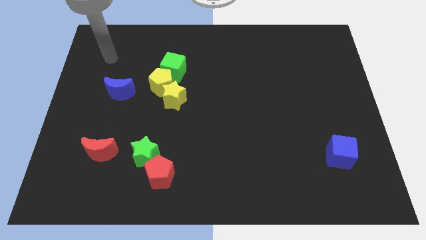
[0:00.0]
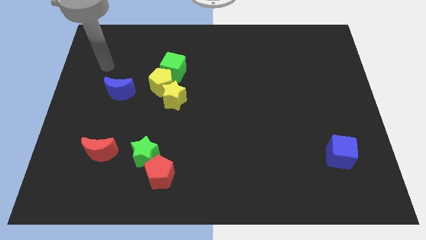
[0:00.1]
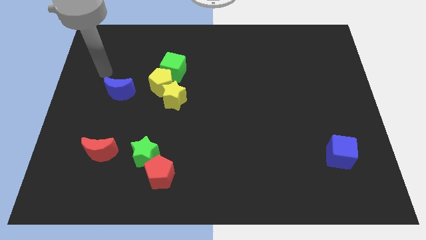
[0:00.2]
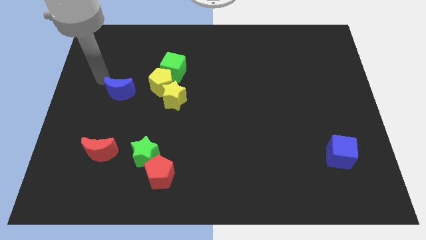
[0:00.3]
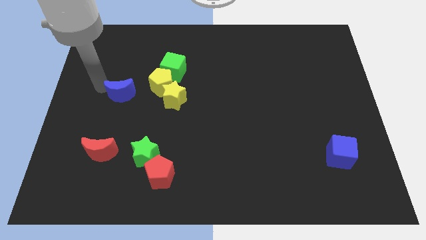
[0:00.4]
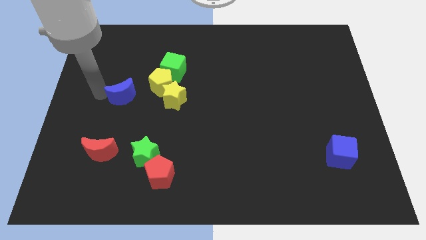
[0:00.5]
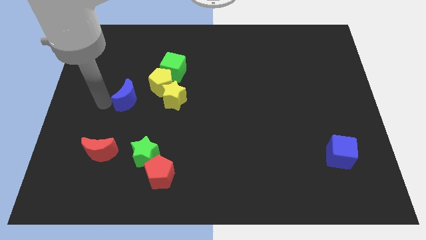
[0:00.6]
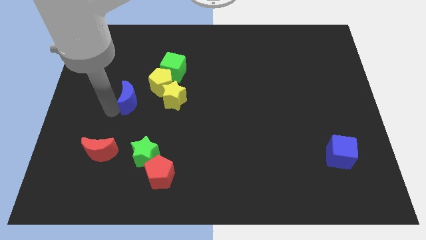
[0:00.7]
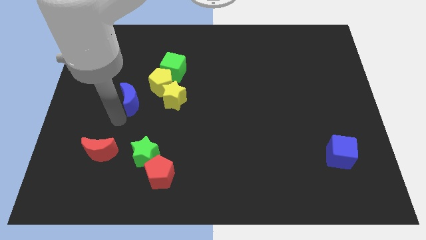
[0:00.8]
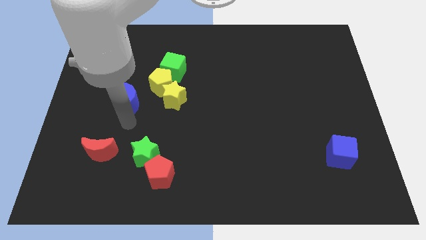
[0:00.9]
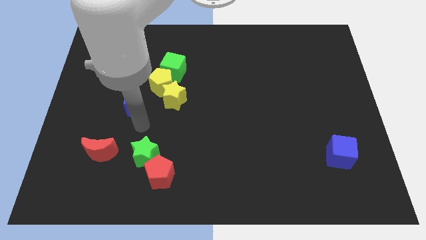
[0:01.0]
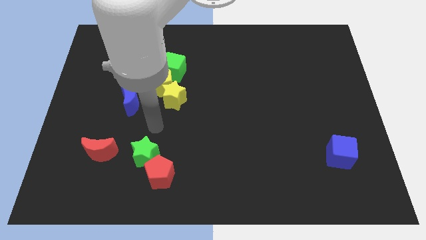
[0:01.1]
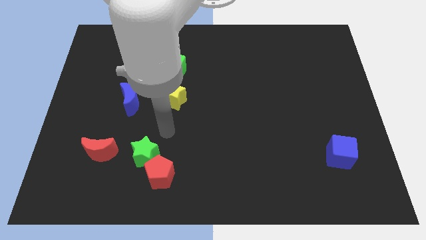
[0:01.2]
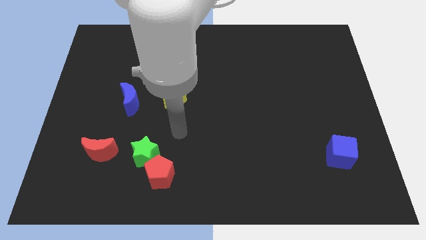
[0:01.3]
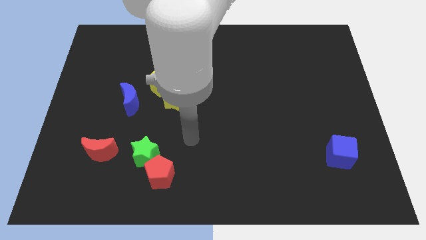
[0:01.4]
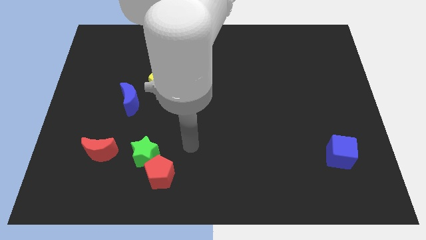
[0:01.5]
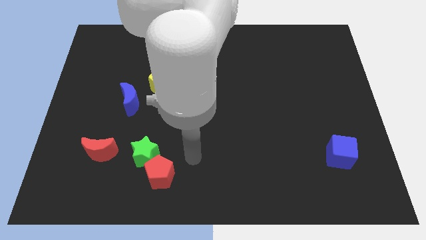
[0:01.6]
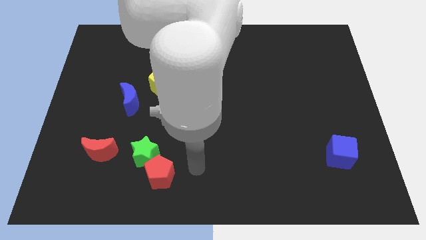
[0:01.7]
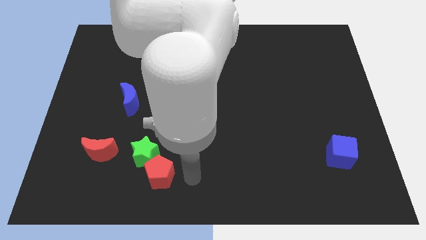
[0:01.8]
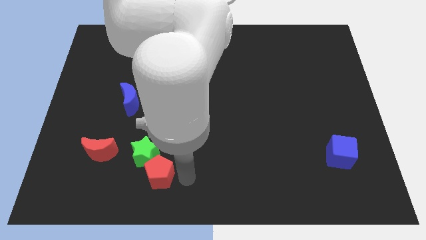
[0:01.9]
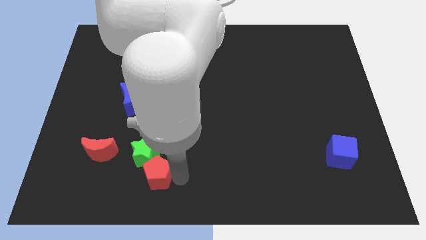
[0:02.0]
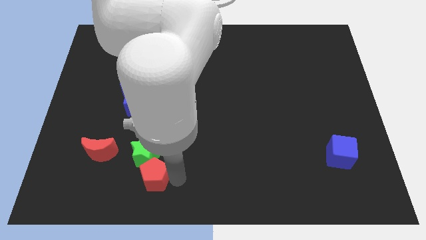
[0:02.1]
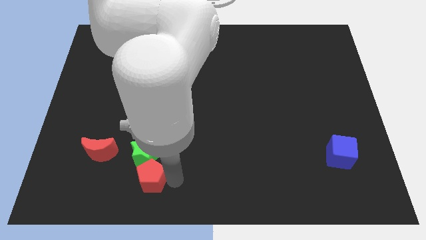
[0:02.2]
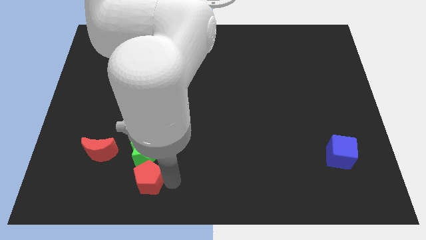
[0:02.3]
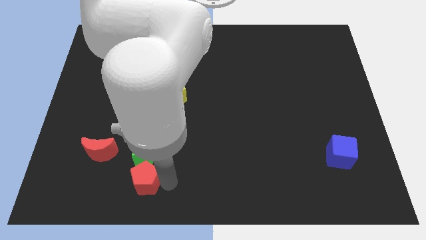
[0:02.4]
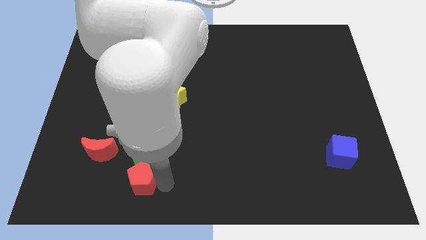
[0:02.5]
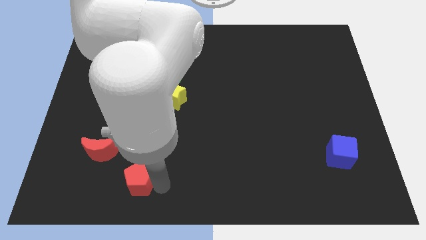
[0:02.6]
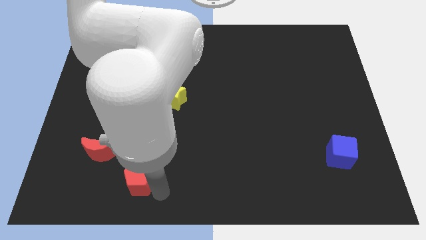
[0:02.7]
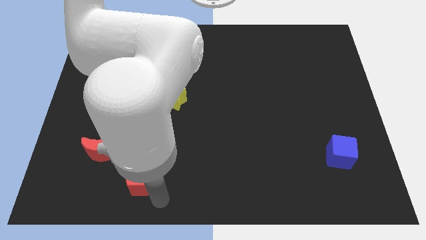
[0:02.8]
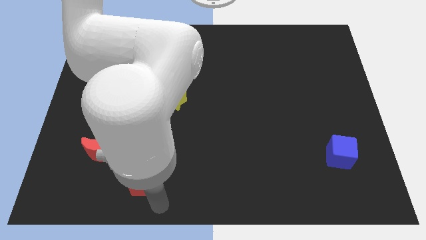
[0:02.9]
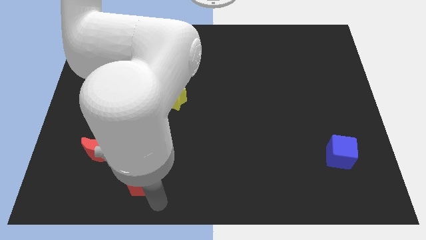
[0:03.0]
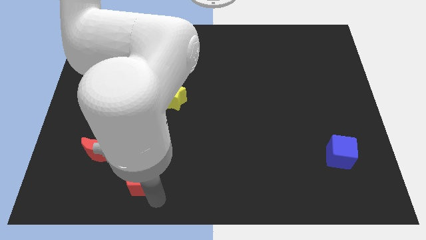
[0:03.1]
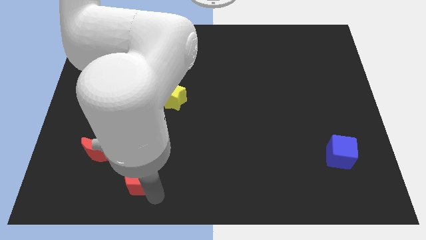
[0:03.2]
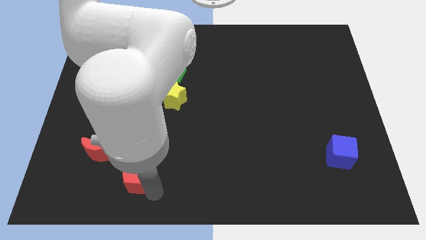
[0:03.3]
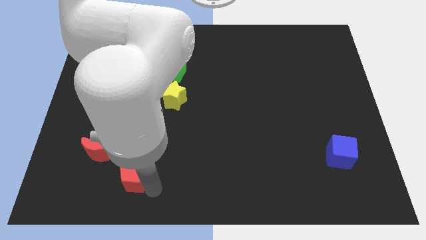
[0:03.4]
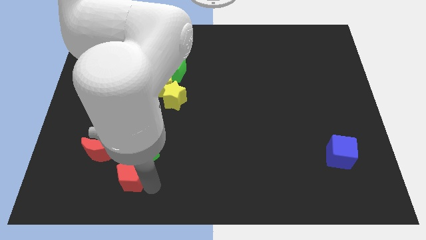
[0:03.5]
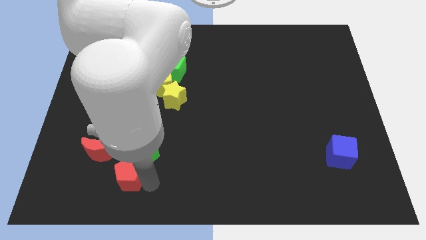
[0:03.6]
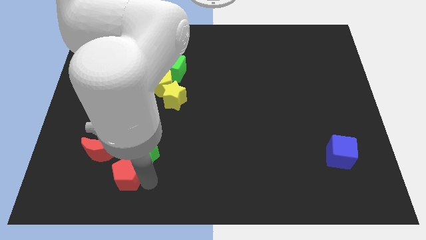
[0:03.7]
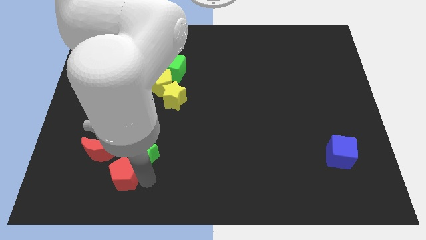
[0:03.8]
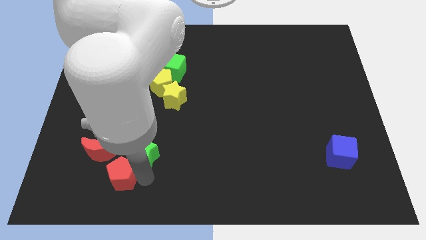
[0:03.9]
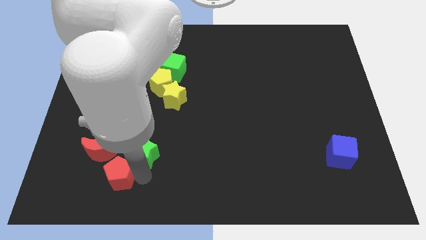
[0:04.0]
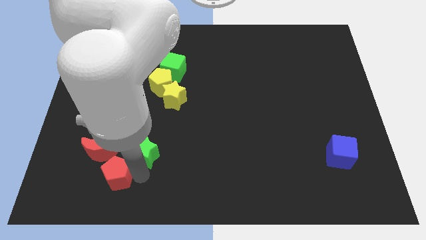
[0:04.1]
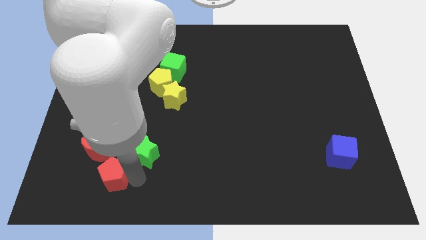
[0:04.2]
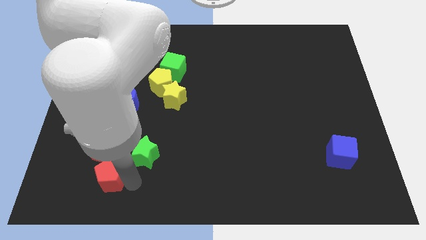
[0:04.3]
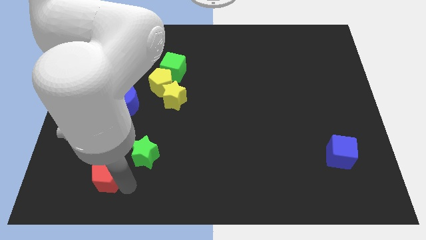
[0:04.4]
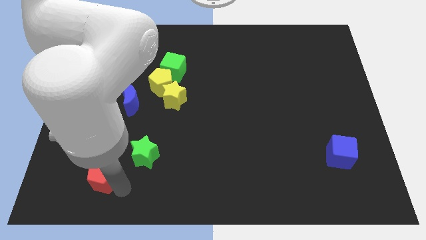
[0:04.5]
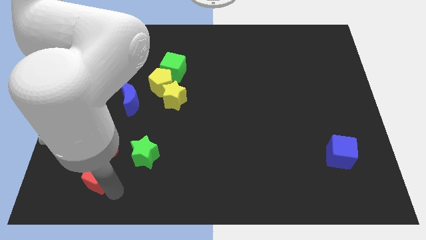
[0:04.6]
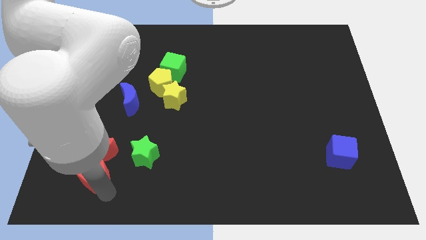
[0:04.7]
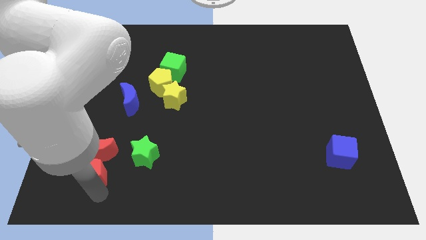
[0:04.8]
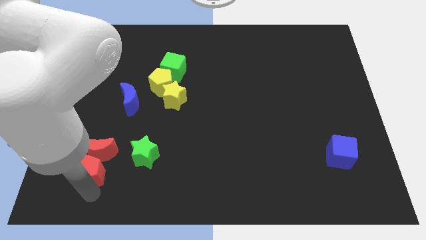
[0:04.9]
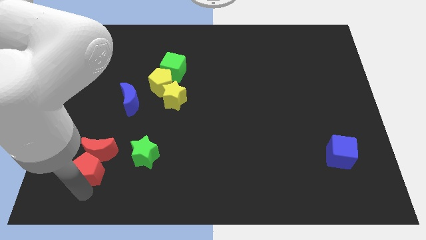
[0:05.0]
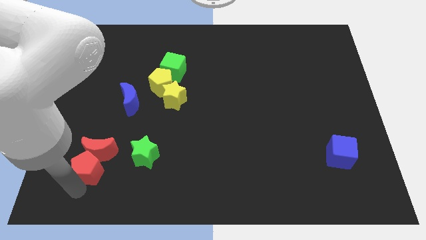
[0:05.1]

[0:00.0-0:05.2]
push the red pentagon up and left a bit

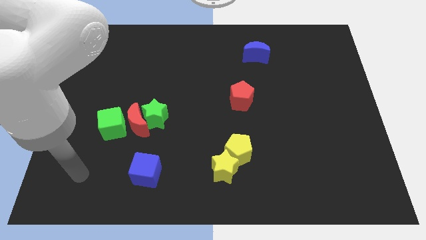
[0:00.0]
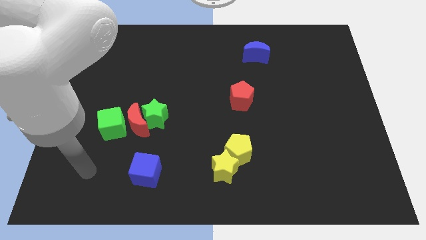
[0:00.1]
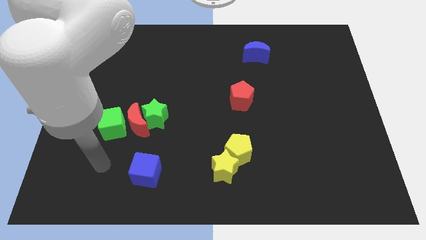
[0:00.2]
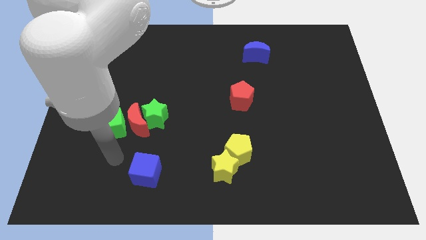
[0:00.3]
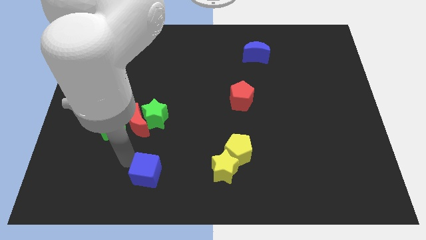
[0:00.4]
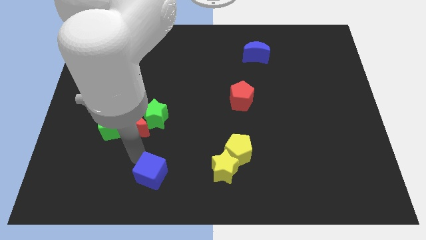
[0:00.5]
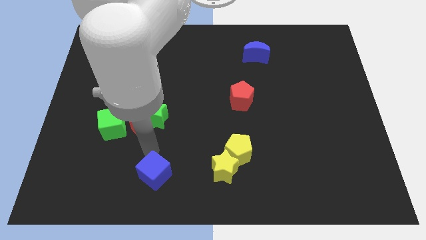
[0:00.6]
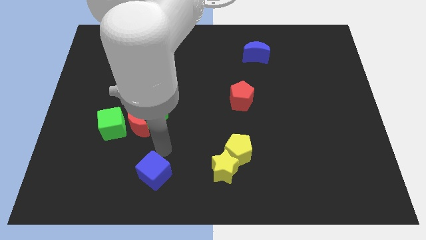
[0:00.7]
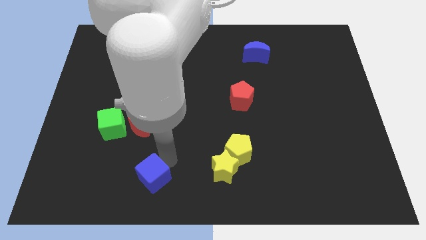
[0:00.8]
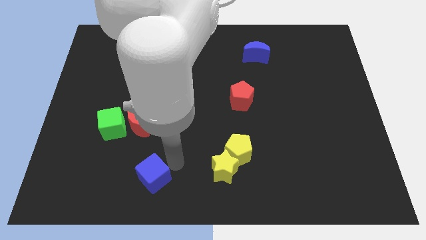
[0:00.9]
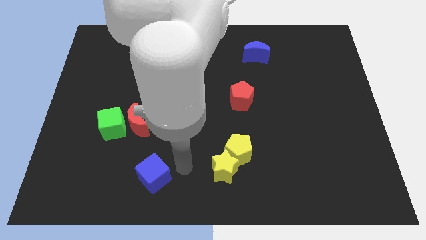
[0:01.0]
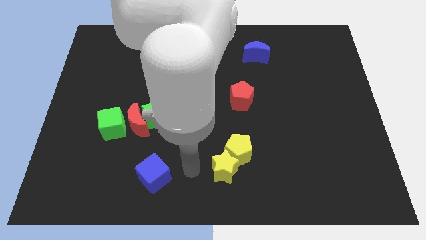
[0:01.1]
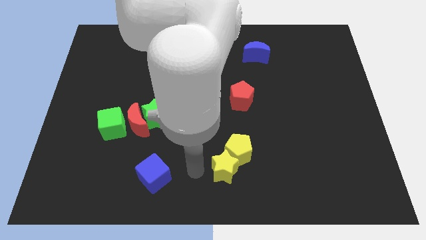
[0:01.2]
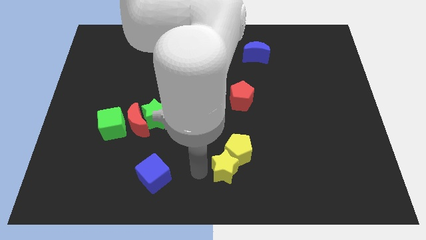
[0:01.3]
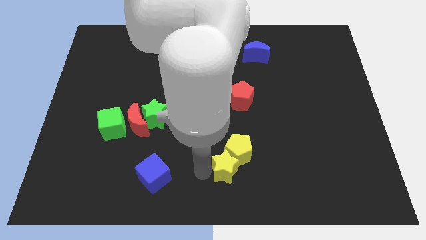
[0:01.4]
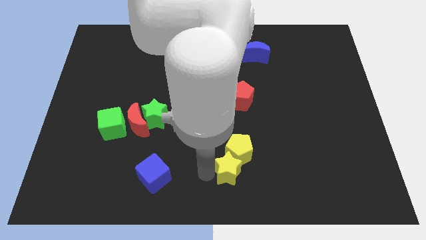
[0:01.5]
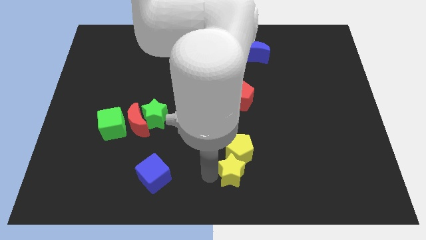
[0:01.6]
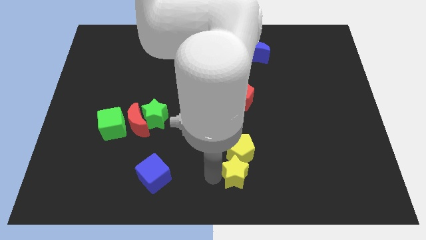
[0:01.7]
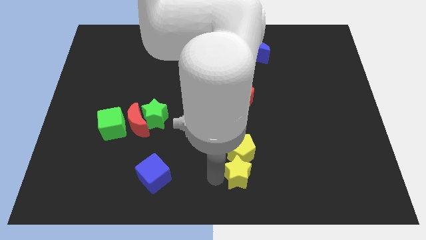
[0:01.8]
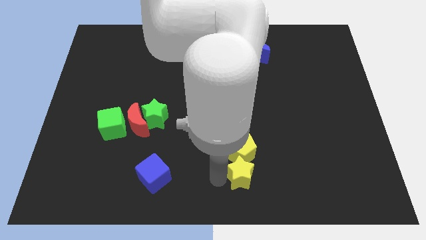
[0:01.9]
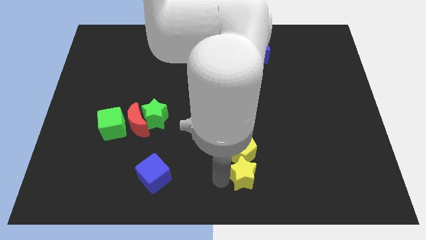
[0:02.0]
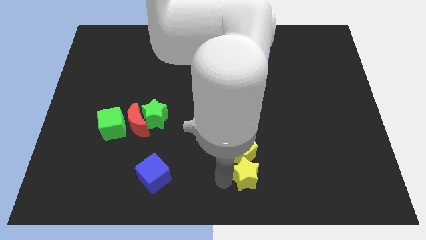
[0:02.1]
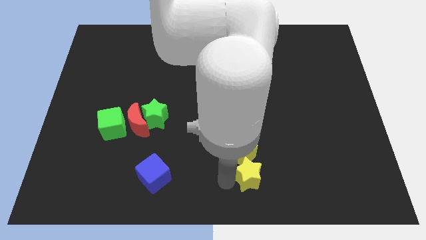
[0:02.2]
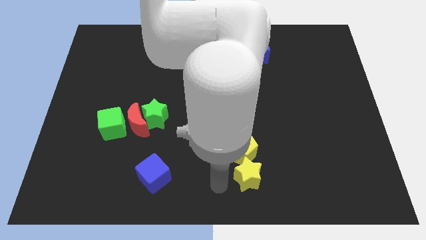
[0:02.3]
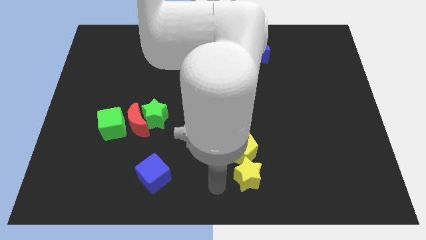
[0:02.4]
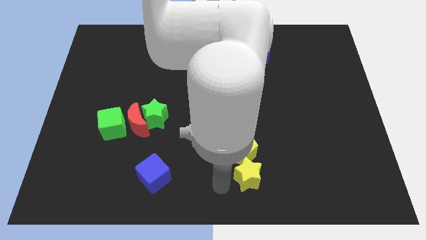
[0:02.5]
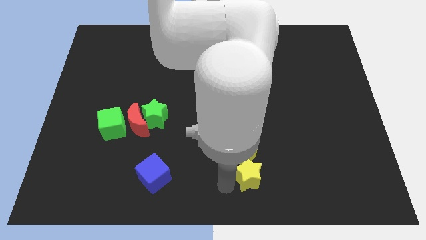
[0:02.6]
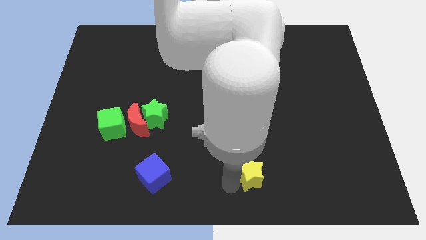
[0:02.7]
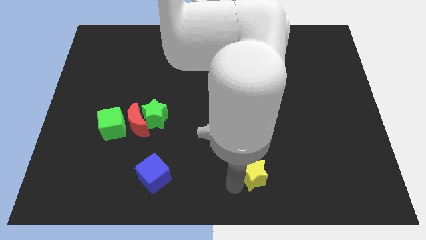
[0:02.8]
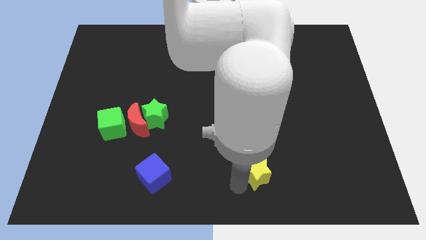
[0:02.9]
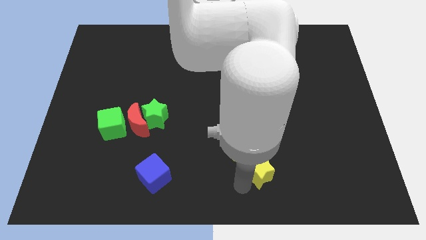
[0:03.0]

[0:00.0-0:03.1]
slide the yellow star a little right
